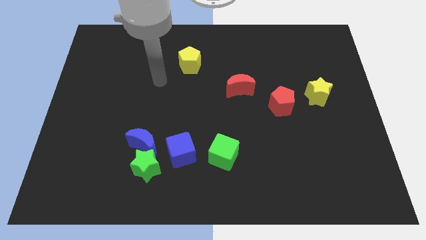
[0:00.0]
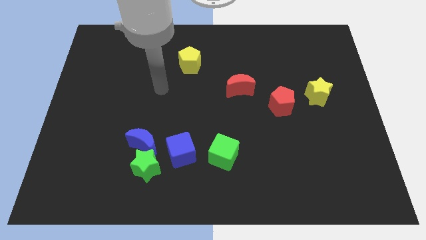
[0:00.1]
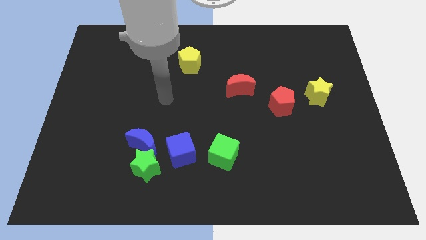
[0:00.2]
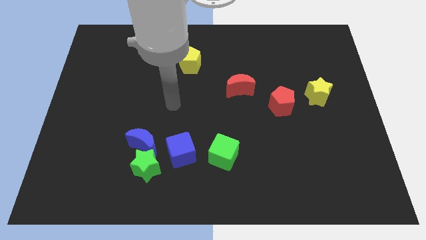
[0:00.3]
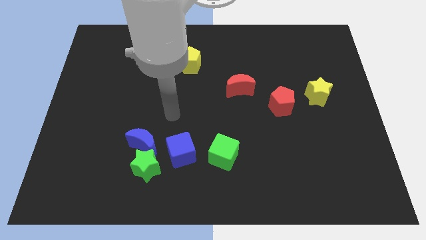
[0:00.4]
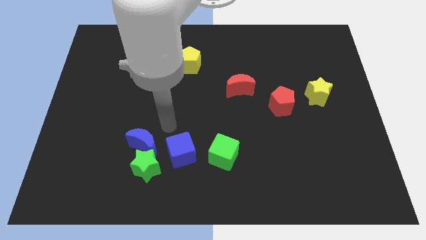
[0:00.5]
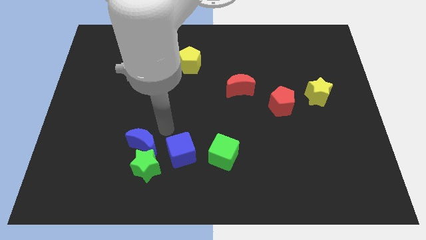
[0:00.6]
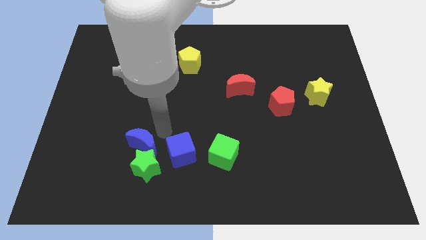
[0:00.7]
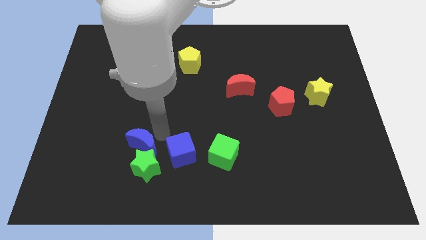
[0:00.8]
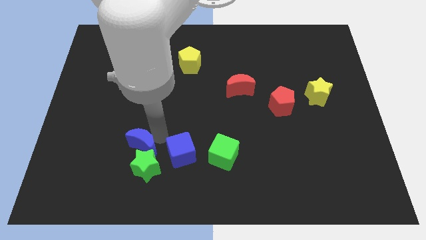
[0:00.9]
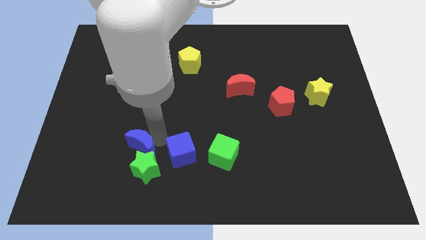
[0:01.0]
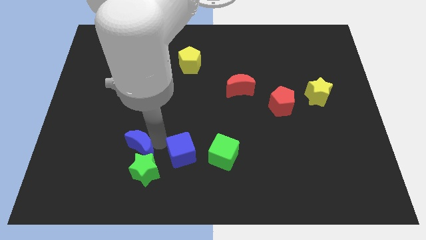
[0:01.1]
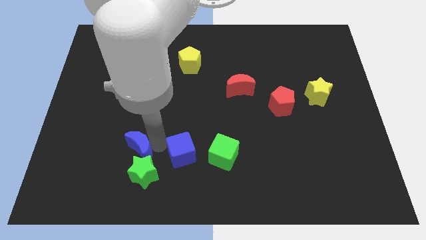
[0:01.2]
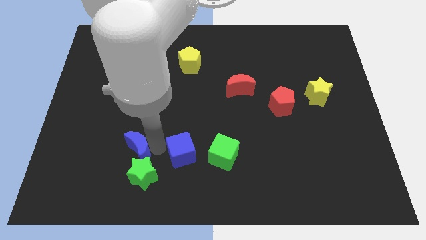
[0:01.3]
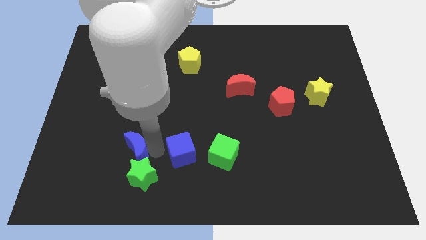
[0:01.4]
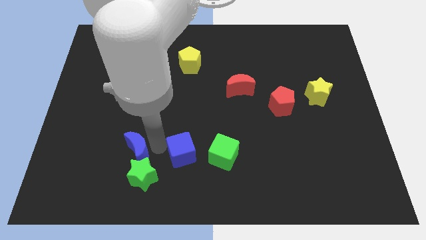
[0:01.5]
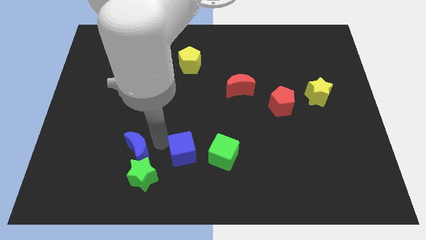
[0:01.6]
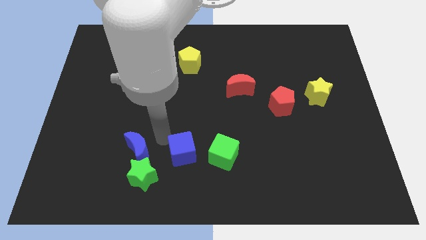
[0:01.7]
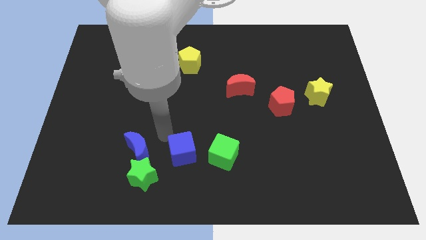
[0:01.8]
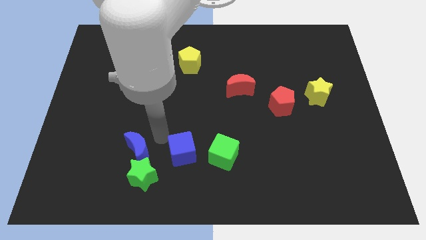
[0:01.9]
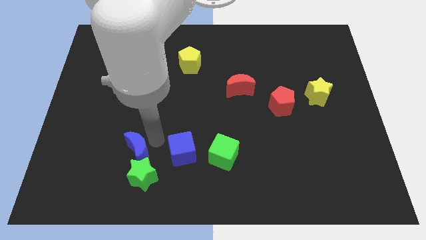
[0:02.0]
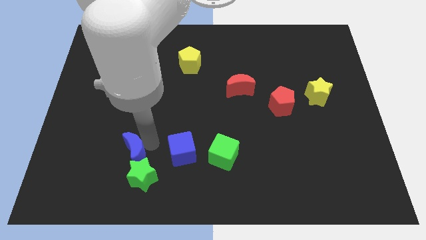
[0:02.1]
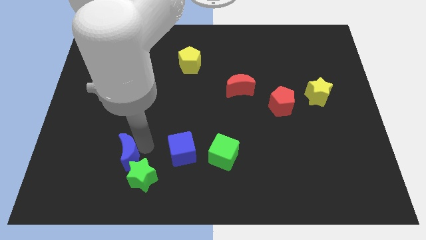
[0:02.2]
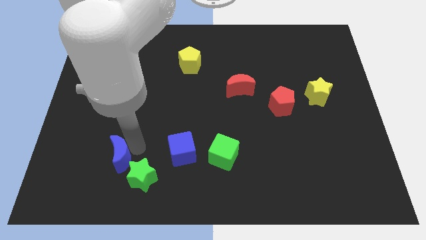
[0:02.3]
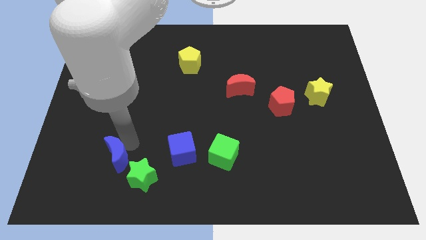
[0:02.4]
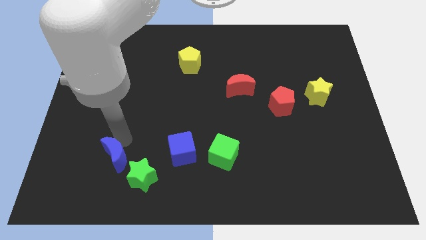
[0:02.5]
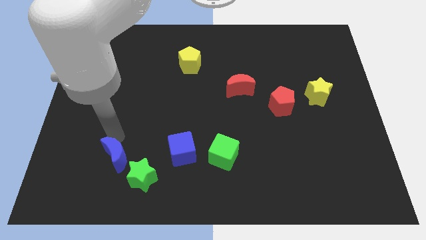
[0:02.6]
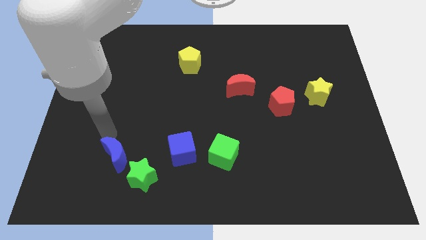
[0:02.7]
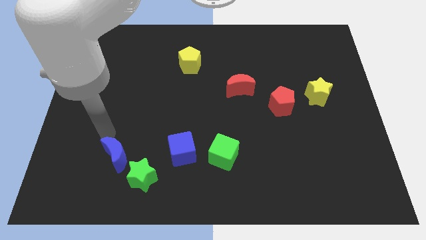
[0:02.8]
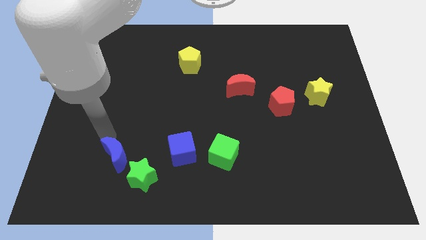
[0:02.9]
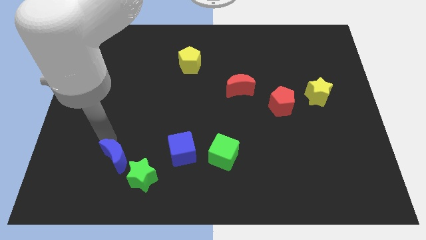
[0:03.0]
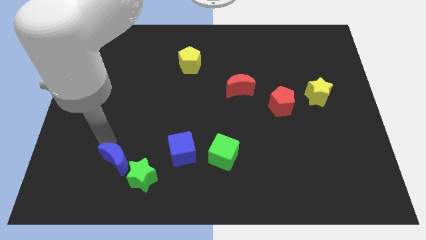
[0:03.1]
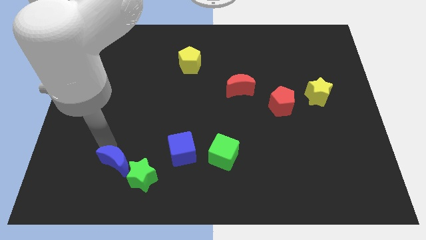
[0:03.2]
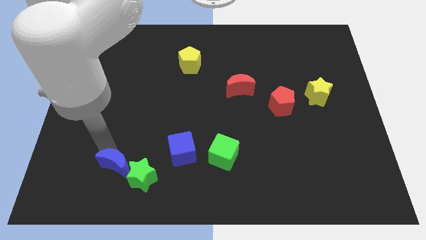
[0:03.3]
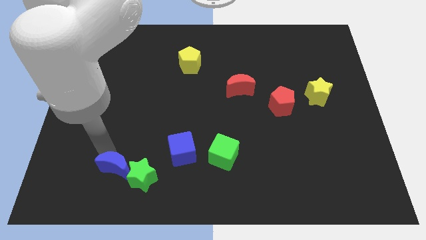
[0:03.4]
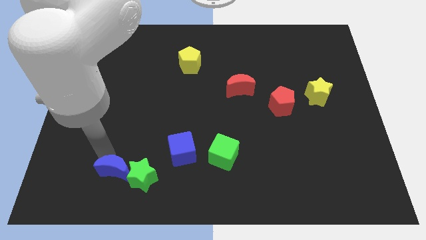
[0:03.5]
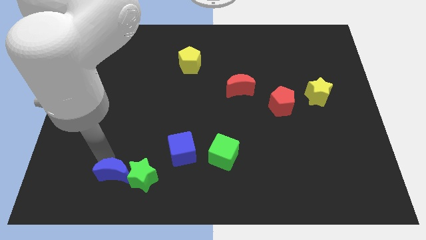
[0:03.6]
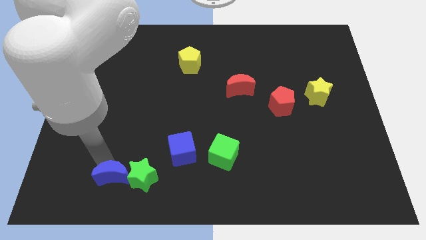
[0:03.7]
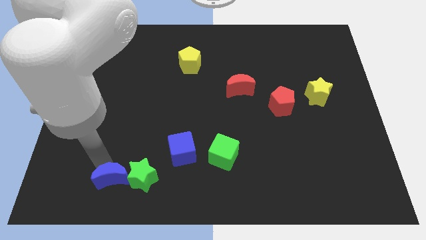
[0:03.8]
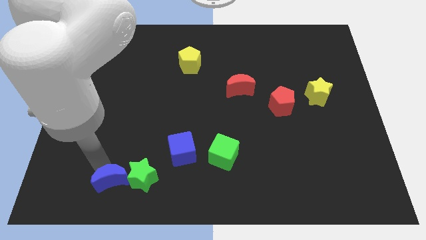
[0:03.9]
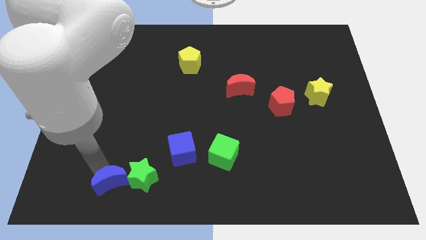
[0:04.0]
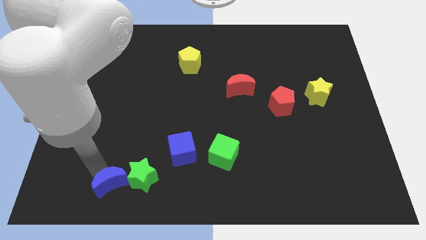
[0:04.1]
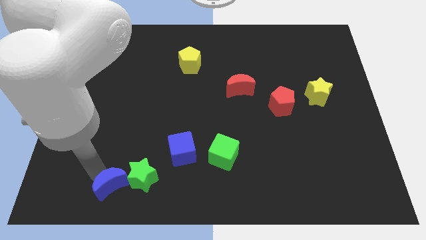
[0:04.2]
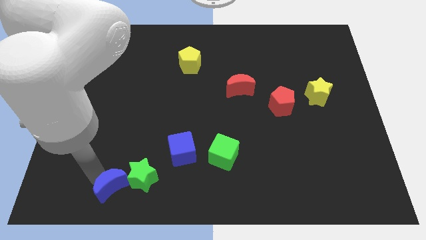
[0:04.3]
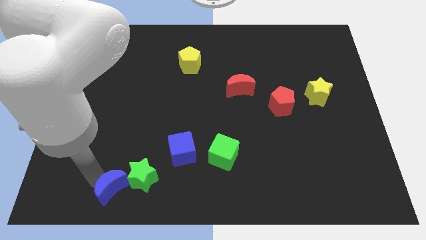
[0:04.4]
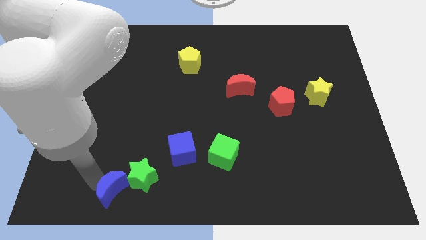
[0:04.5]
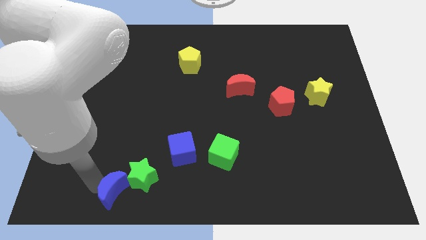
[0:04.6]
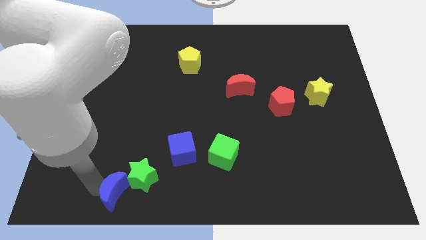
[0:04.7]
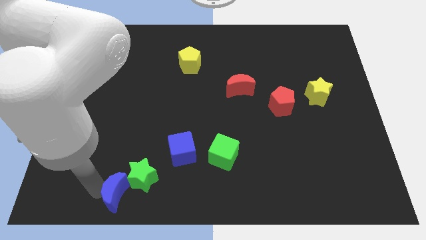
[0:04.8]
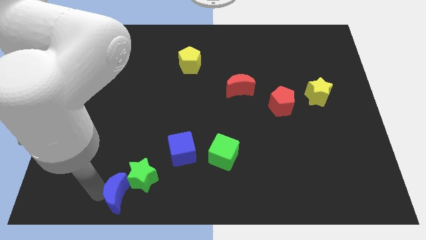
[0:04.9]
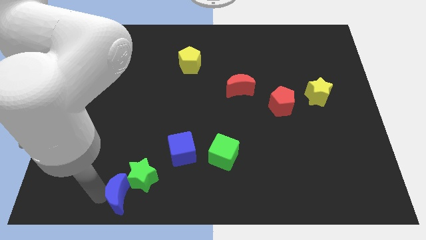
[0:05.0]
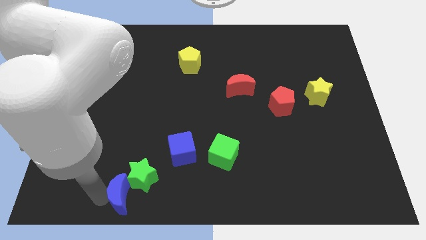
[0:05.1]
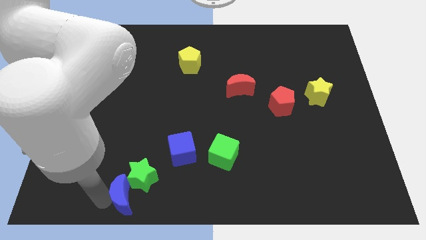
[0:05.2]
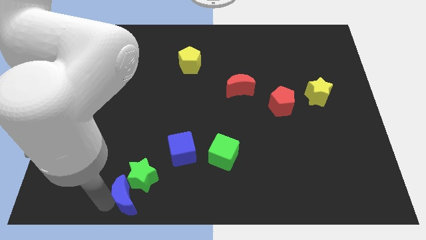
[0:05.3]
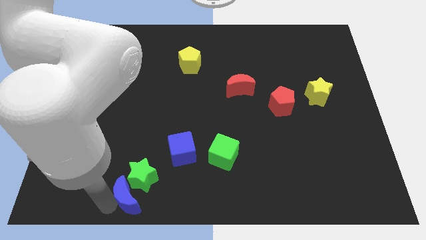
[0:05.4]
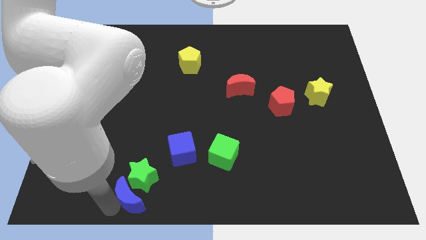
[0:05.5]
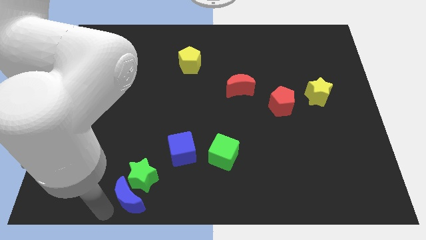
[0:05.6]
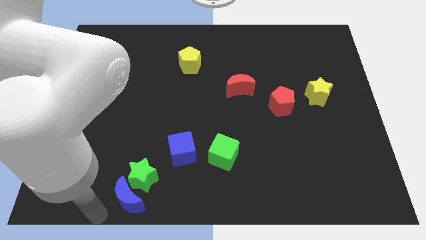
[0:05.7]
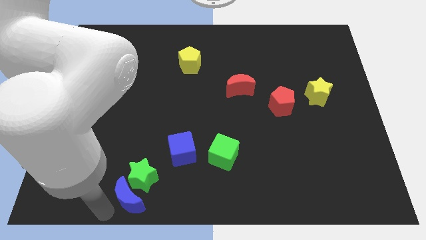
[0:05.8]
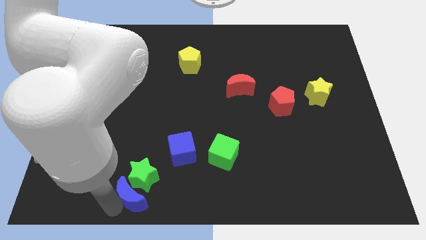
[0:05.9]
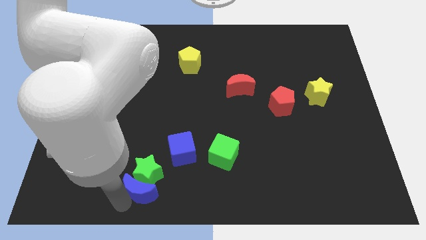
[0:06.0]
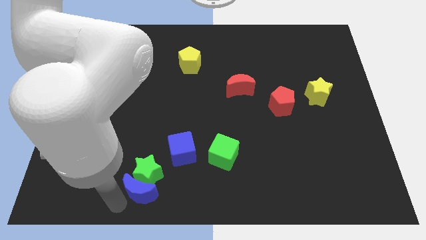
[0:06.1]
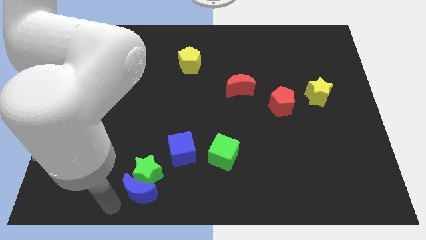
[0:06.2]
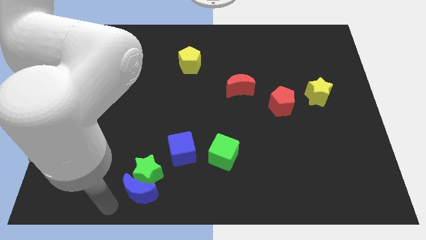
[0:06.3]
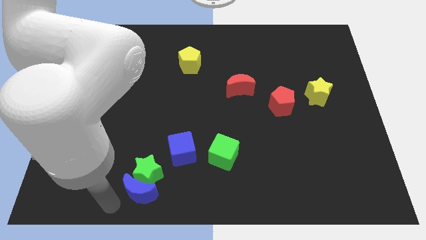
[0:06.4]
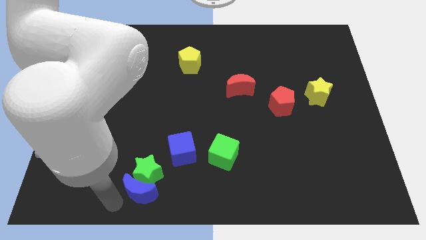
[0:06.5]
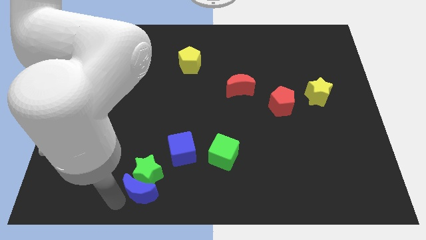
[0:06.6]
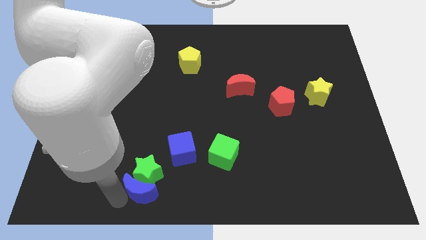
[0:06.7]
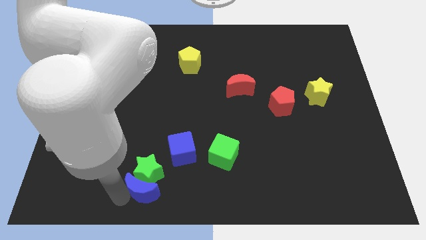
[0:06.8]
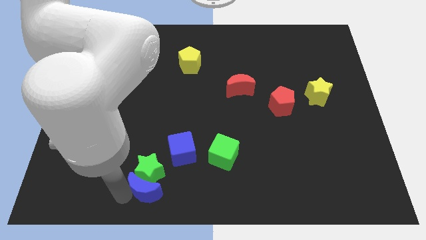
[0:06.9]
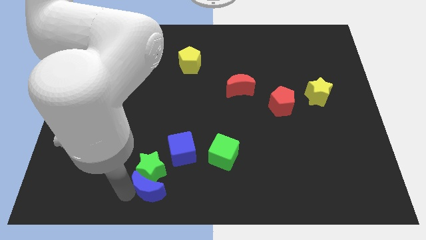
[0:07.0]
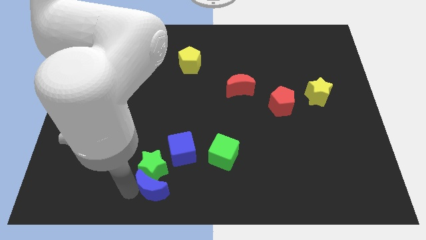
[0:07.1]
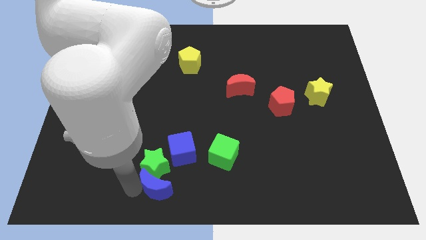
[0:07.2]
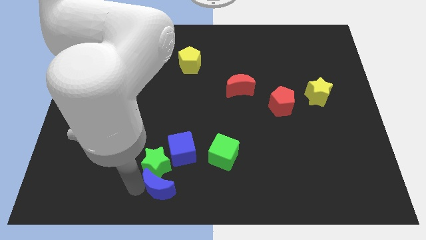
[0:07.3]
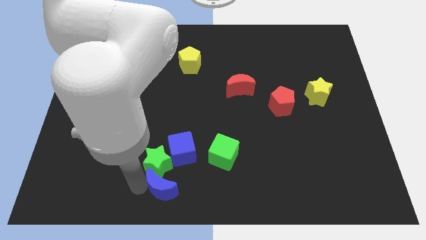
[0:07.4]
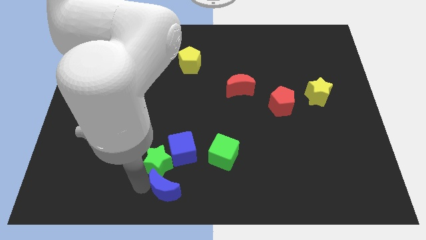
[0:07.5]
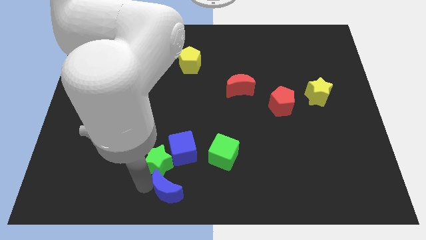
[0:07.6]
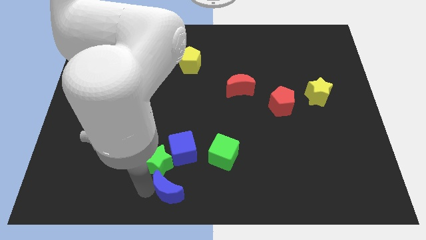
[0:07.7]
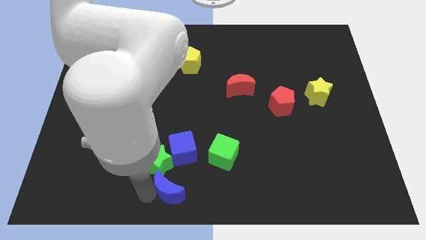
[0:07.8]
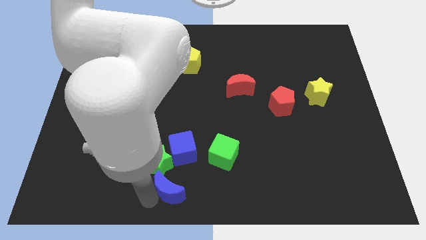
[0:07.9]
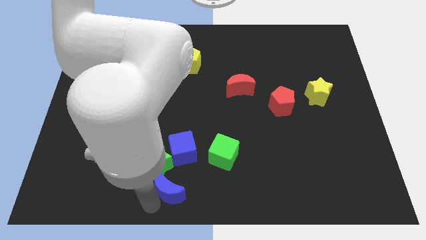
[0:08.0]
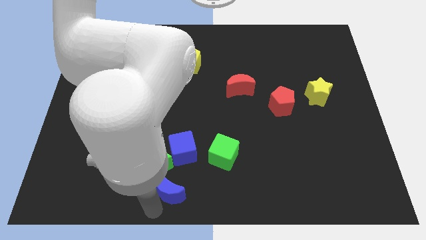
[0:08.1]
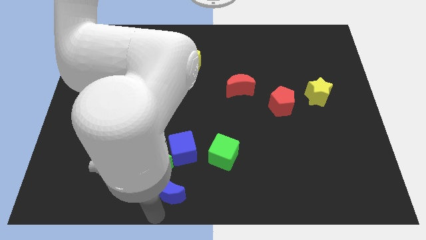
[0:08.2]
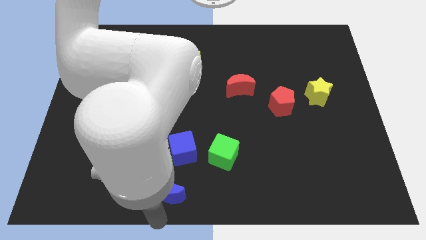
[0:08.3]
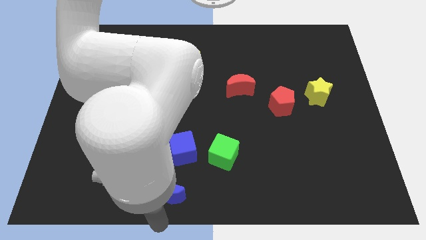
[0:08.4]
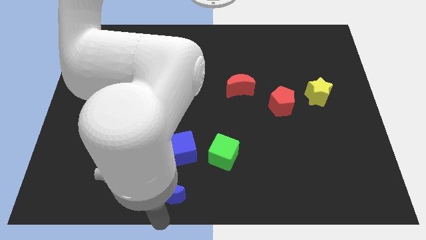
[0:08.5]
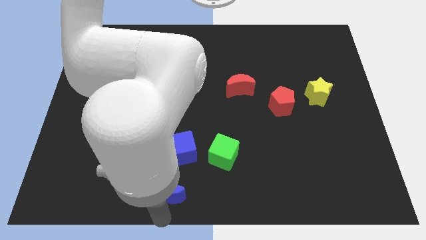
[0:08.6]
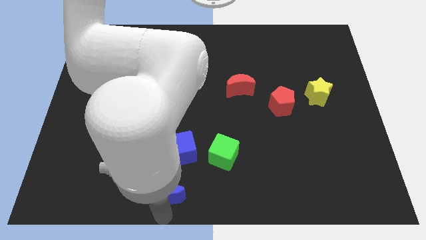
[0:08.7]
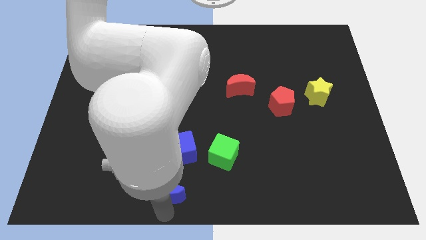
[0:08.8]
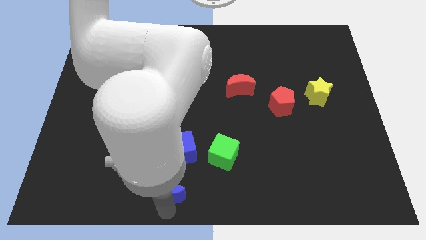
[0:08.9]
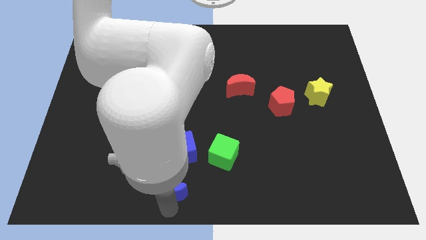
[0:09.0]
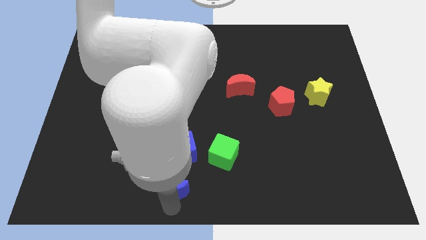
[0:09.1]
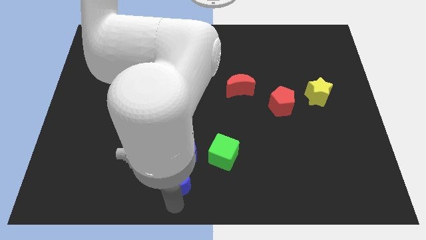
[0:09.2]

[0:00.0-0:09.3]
push the blue moon to the bottom left of the green cube
